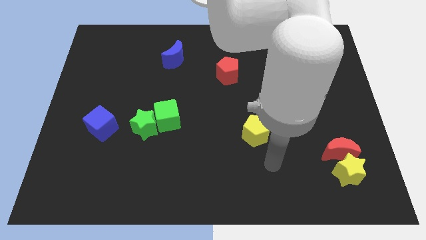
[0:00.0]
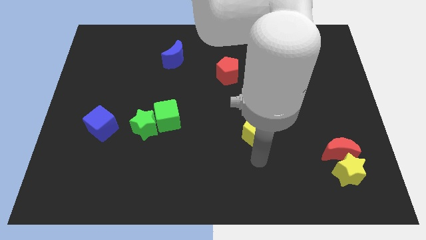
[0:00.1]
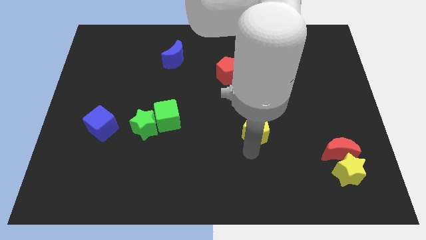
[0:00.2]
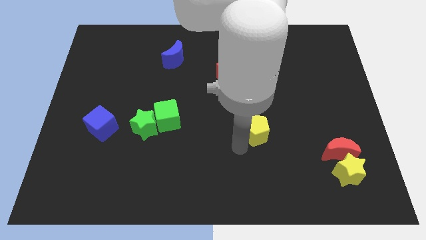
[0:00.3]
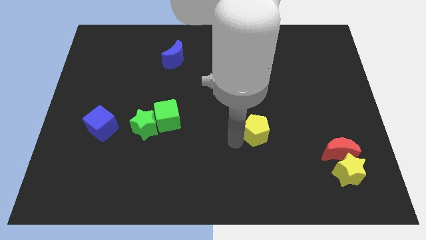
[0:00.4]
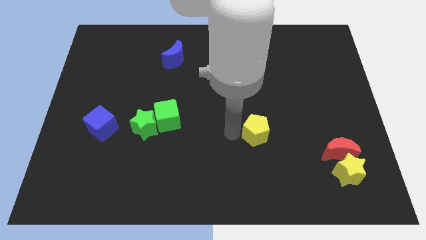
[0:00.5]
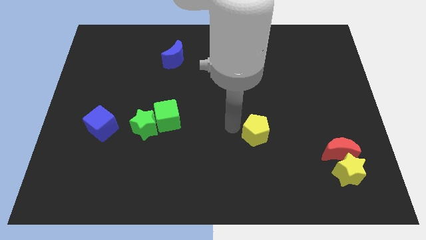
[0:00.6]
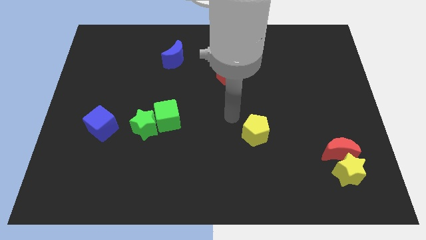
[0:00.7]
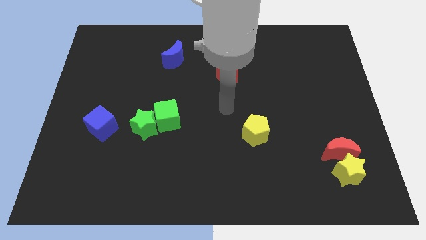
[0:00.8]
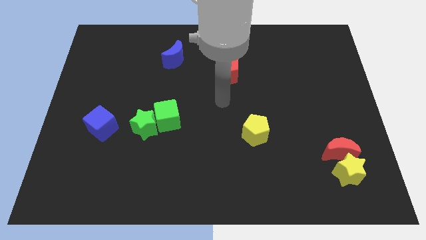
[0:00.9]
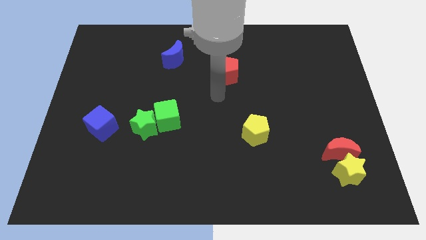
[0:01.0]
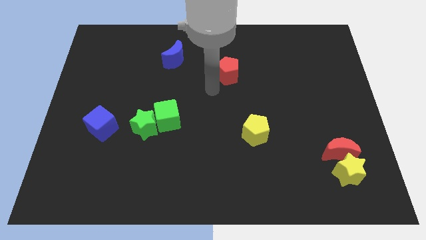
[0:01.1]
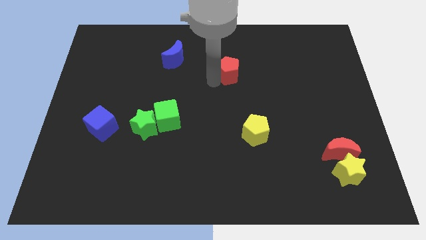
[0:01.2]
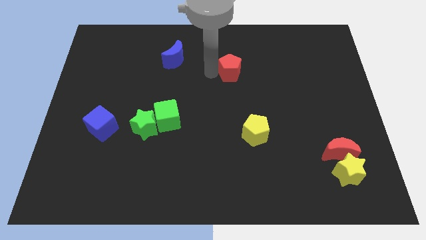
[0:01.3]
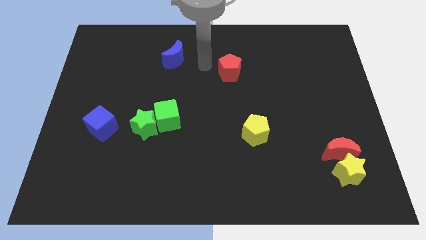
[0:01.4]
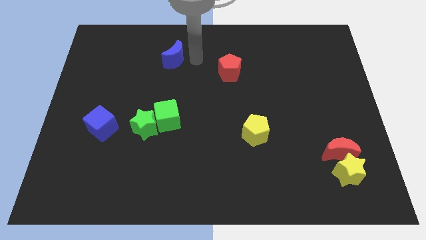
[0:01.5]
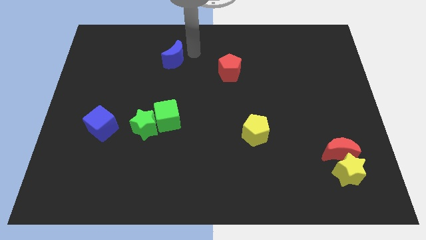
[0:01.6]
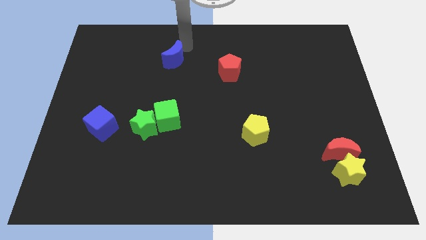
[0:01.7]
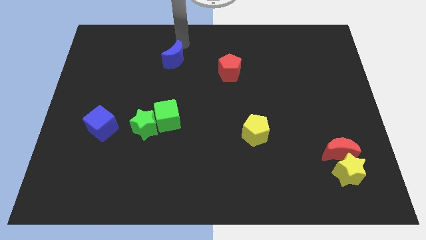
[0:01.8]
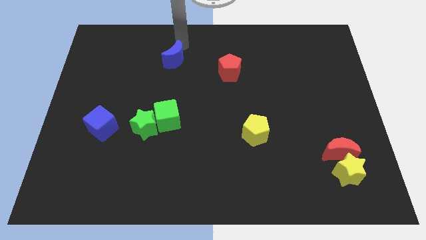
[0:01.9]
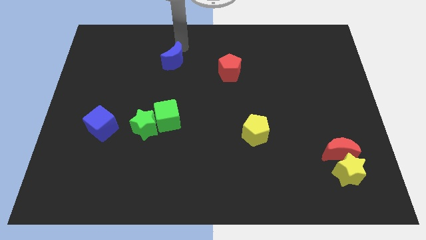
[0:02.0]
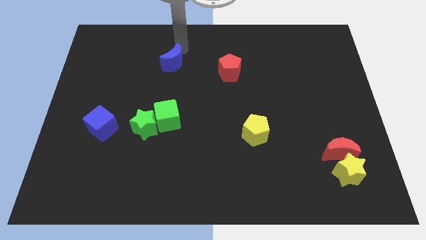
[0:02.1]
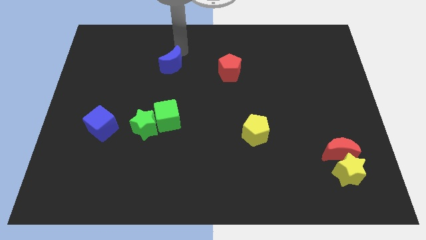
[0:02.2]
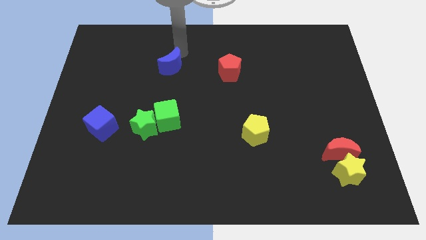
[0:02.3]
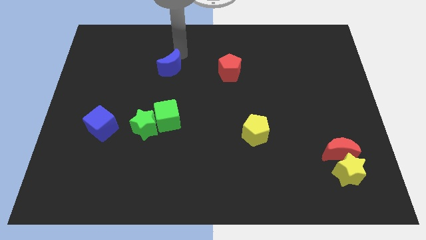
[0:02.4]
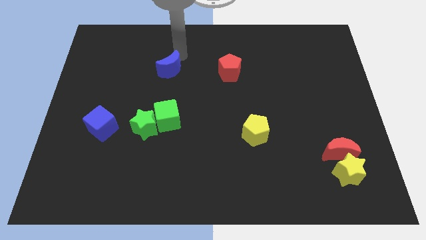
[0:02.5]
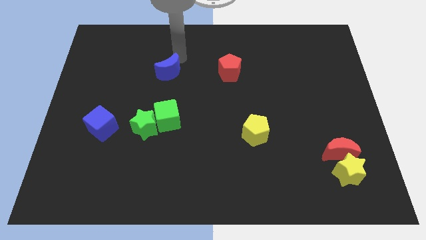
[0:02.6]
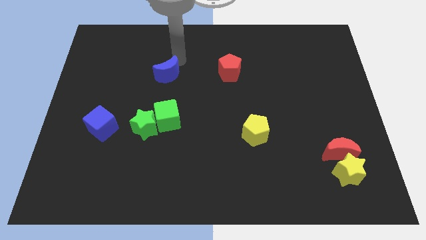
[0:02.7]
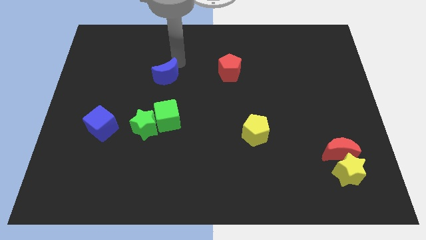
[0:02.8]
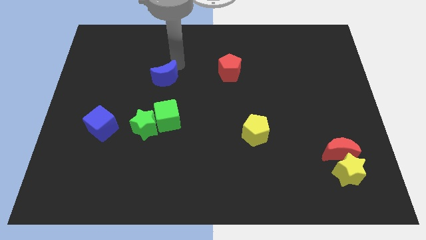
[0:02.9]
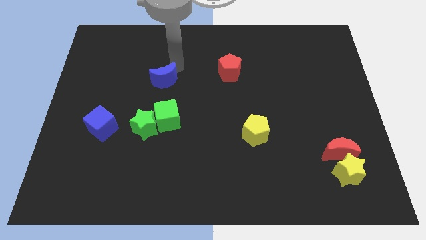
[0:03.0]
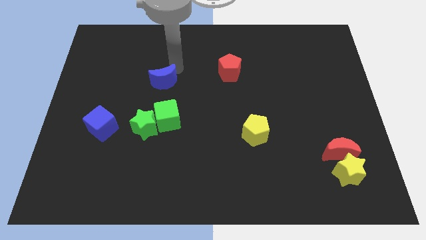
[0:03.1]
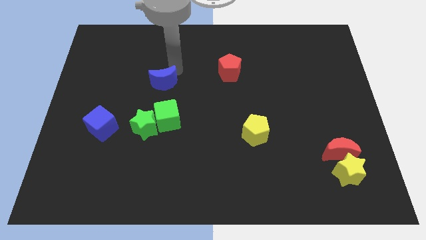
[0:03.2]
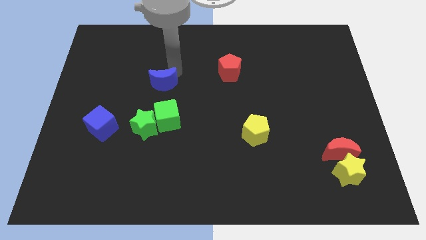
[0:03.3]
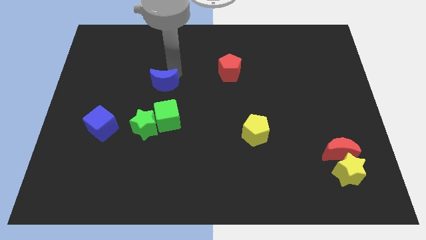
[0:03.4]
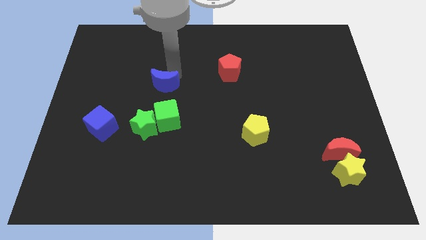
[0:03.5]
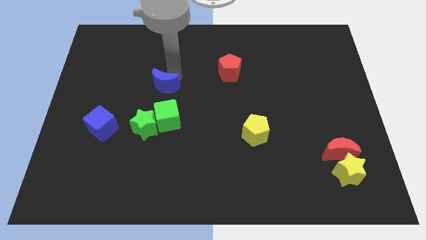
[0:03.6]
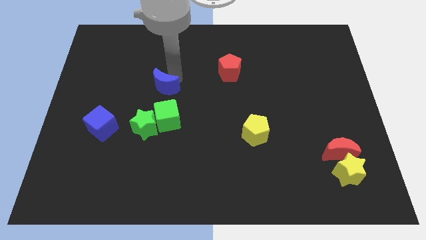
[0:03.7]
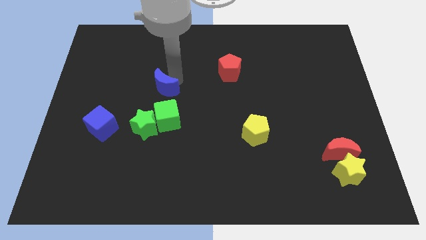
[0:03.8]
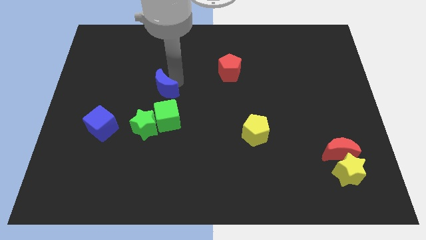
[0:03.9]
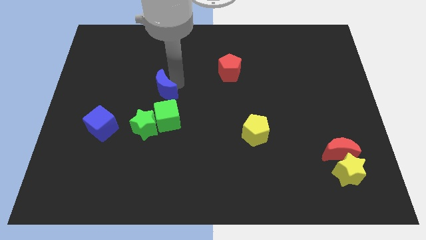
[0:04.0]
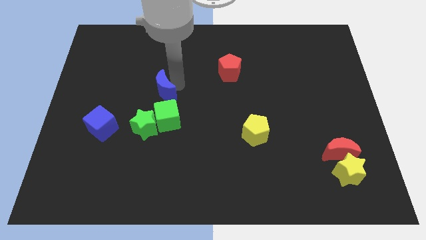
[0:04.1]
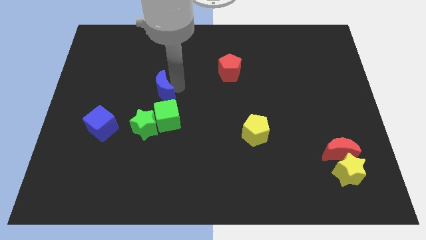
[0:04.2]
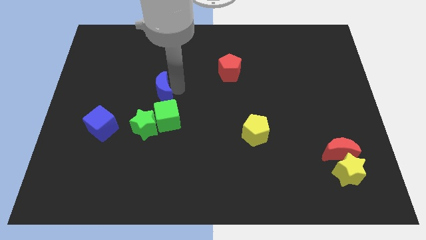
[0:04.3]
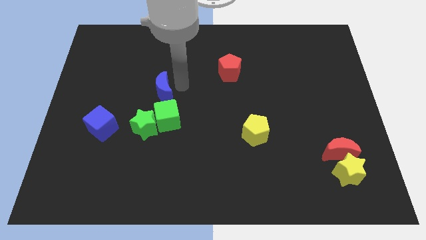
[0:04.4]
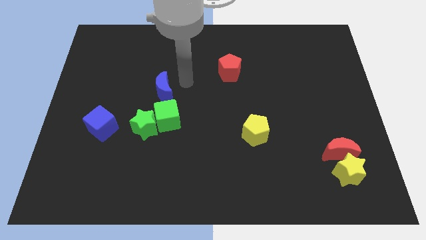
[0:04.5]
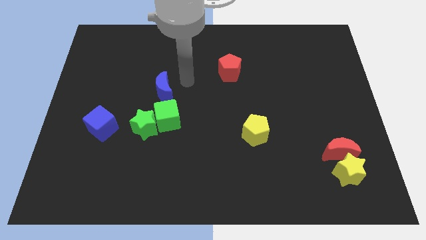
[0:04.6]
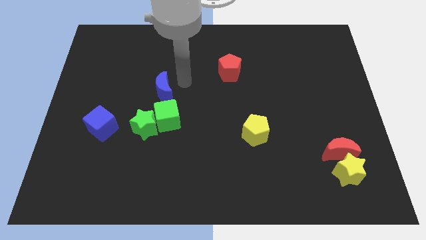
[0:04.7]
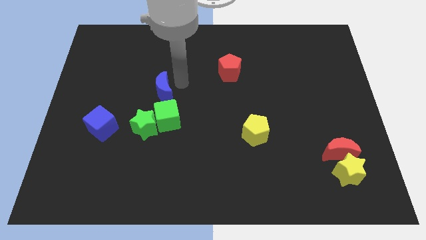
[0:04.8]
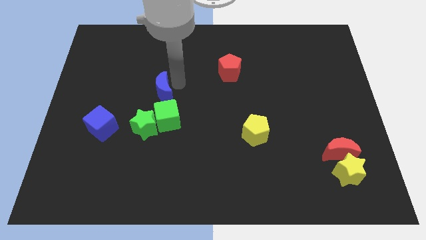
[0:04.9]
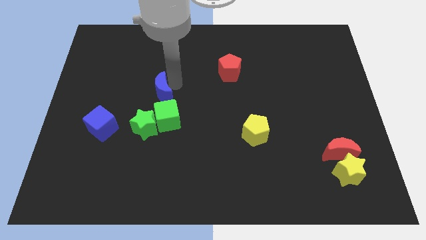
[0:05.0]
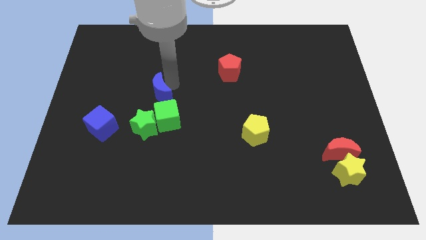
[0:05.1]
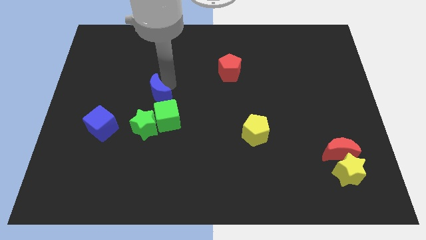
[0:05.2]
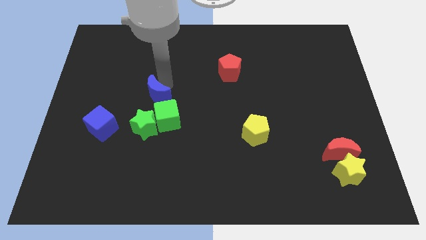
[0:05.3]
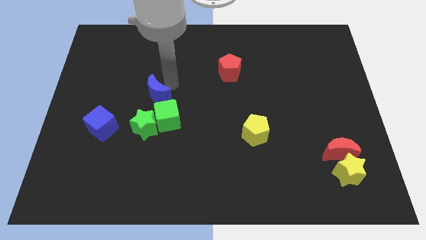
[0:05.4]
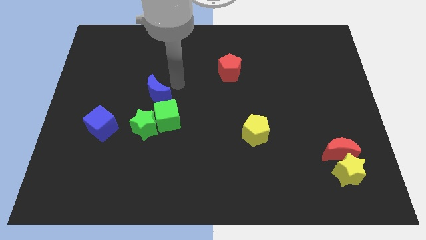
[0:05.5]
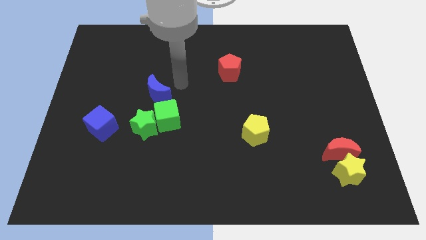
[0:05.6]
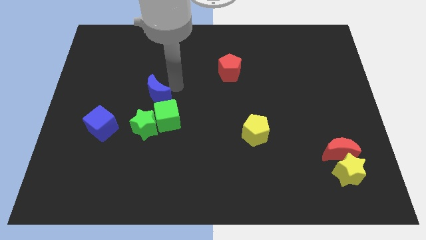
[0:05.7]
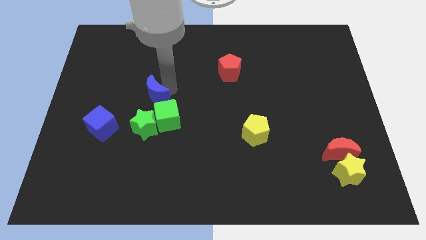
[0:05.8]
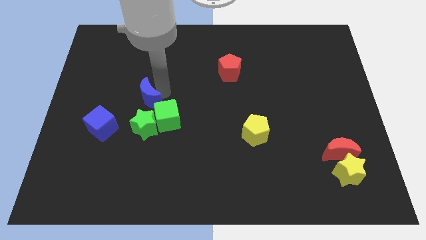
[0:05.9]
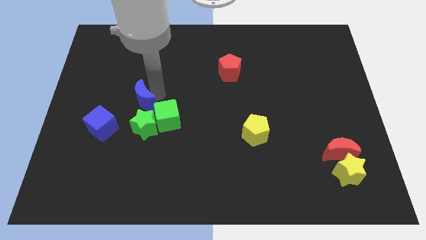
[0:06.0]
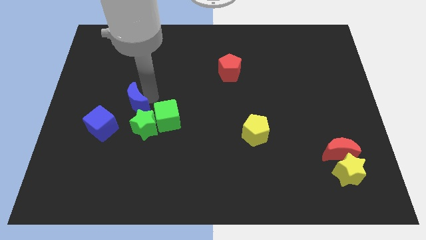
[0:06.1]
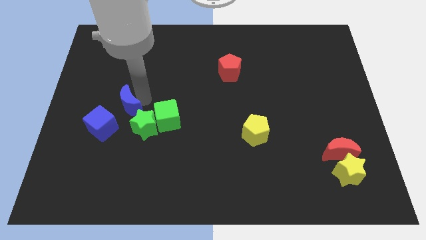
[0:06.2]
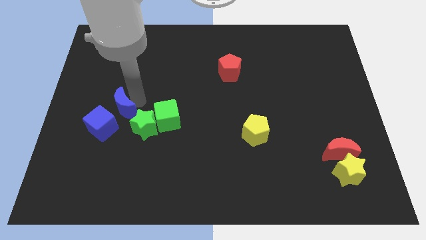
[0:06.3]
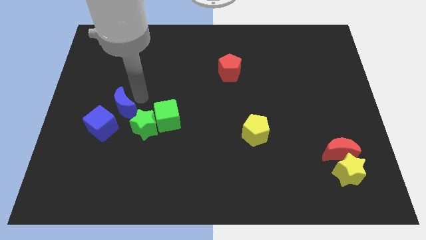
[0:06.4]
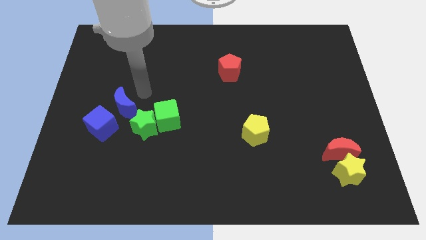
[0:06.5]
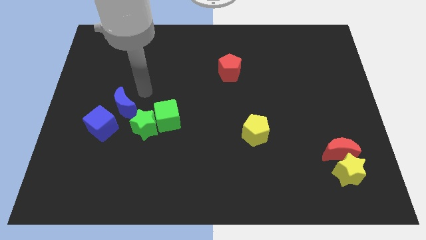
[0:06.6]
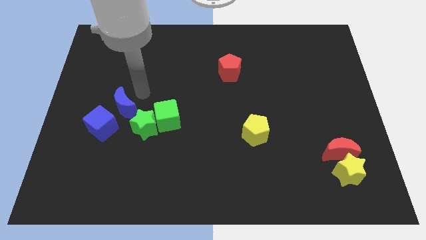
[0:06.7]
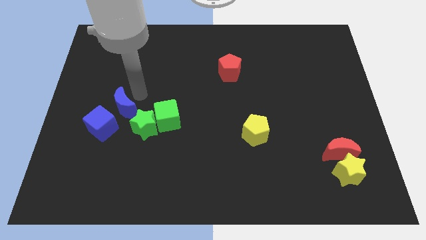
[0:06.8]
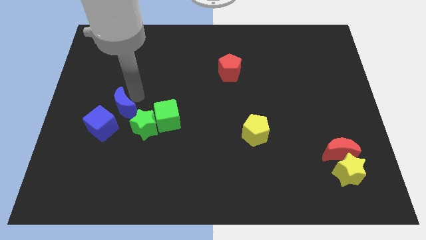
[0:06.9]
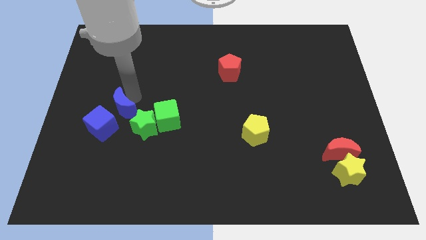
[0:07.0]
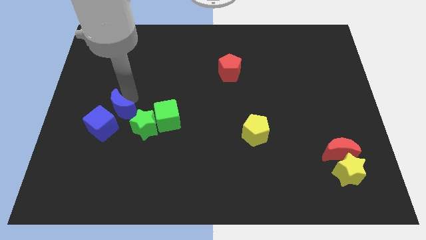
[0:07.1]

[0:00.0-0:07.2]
put the blue moon next to the blue cube

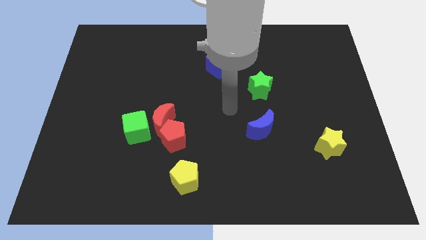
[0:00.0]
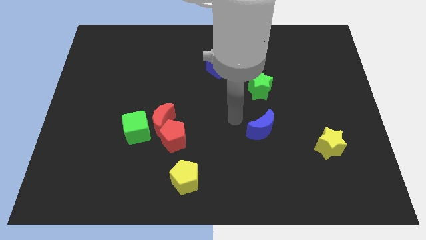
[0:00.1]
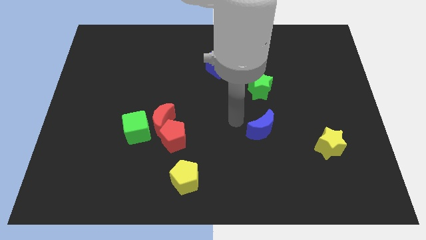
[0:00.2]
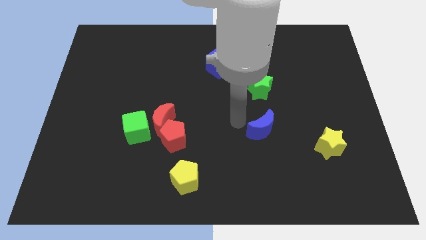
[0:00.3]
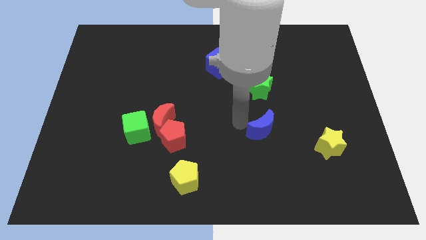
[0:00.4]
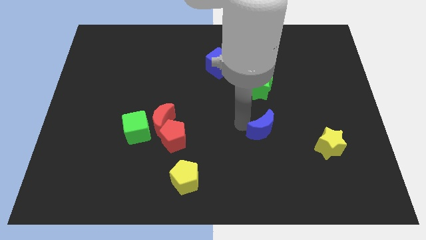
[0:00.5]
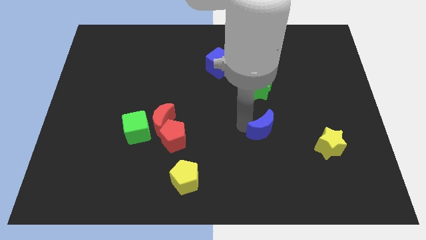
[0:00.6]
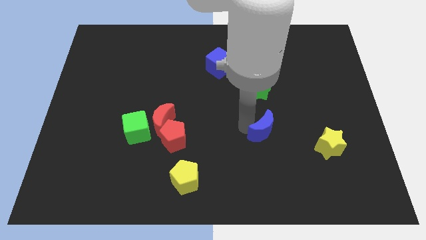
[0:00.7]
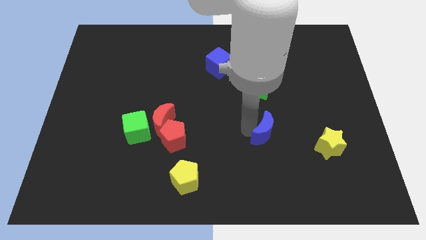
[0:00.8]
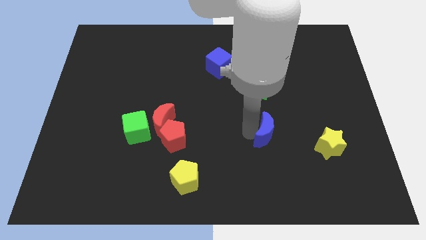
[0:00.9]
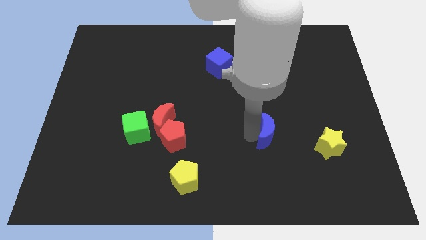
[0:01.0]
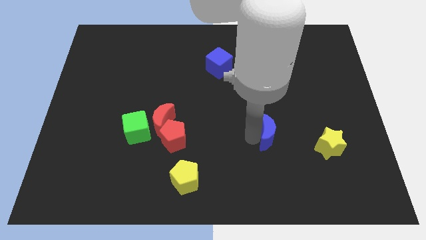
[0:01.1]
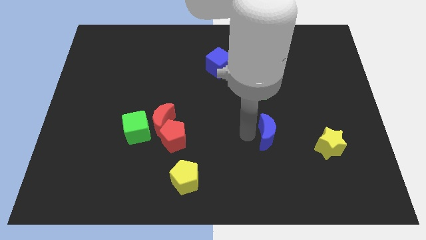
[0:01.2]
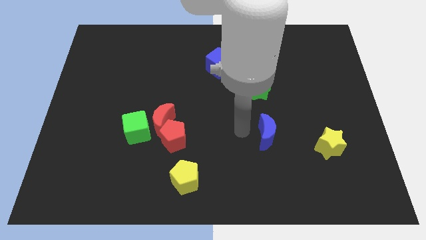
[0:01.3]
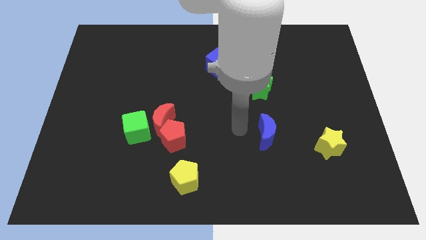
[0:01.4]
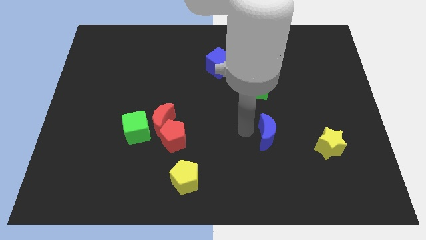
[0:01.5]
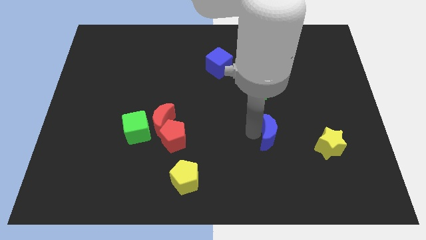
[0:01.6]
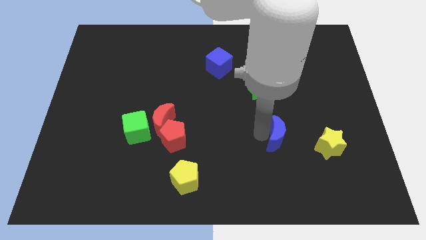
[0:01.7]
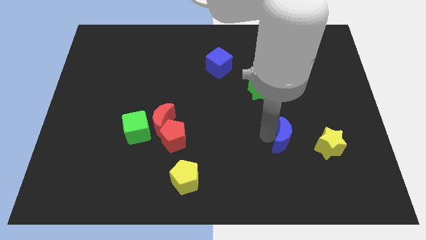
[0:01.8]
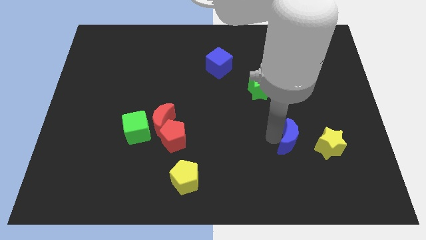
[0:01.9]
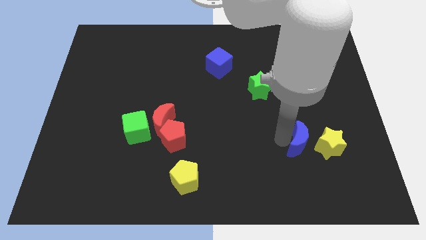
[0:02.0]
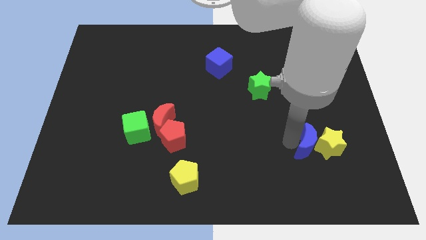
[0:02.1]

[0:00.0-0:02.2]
put the blue moon close to the yellow star
